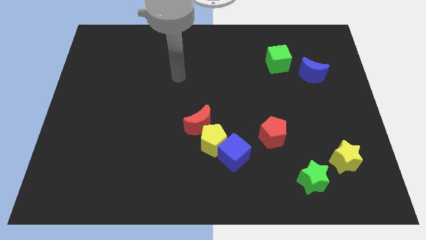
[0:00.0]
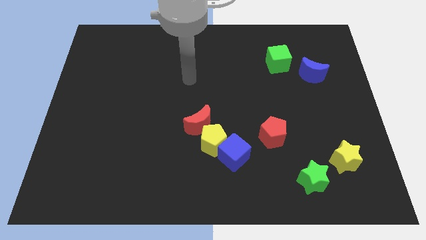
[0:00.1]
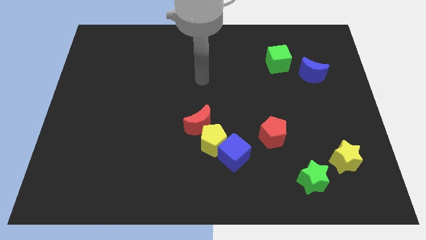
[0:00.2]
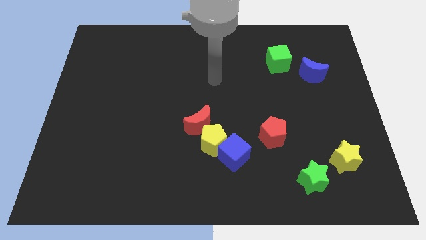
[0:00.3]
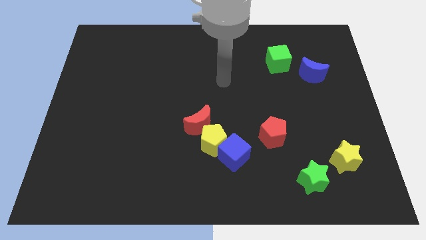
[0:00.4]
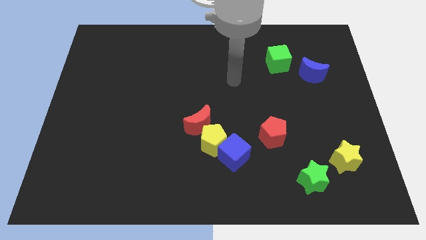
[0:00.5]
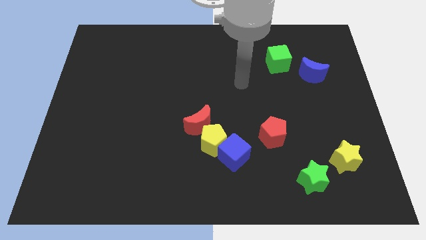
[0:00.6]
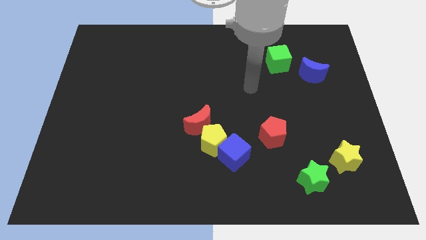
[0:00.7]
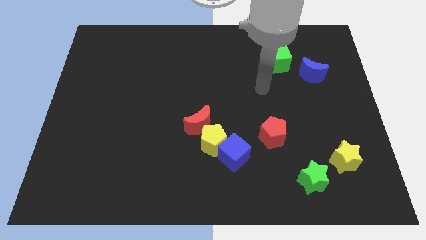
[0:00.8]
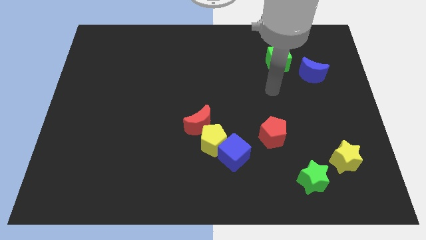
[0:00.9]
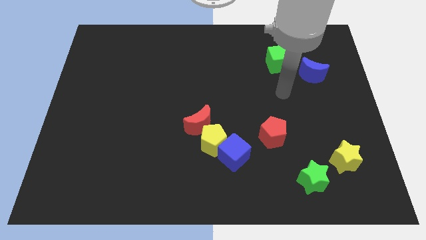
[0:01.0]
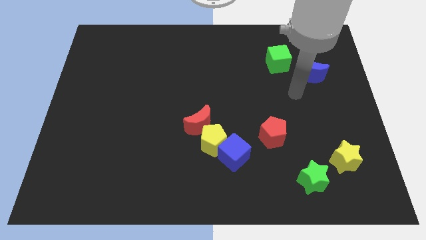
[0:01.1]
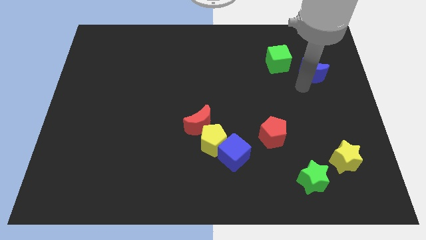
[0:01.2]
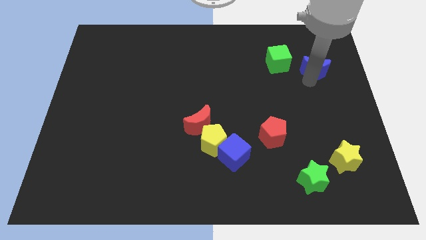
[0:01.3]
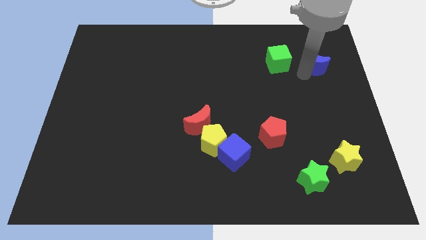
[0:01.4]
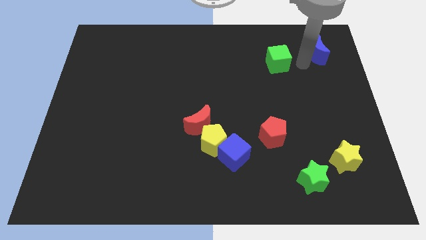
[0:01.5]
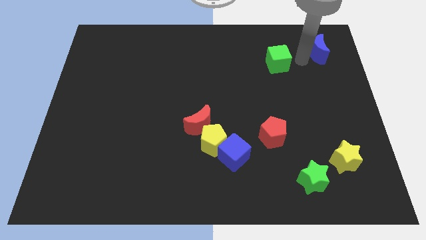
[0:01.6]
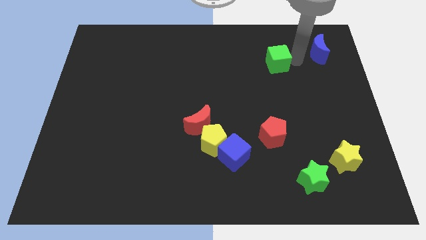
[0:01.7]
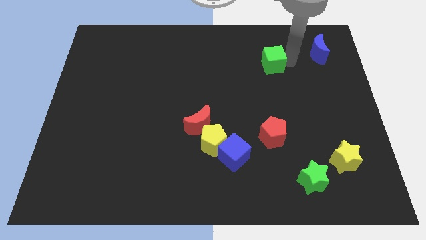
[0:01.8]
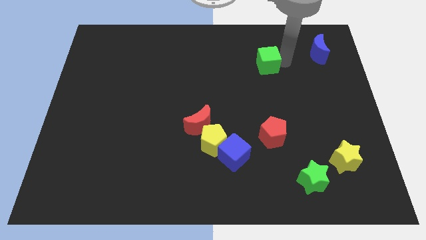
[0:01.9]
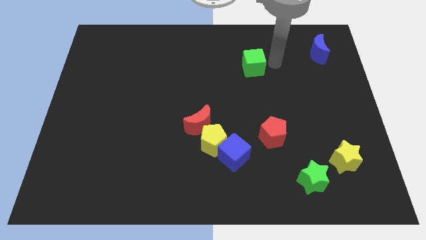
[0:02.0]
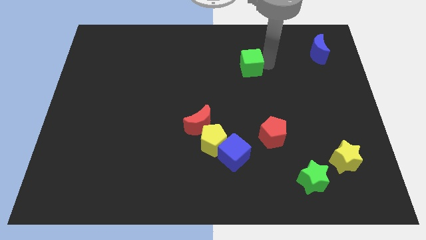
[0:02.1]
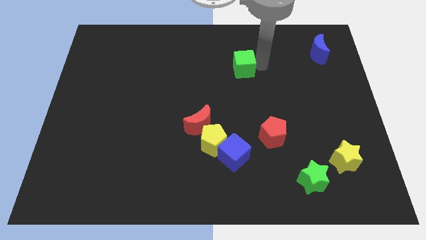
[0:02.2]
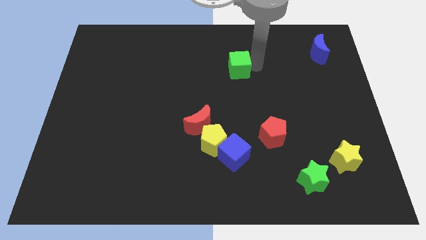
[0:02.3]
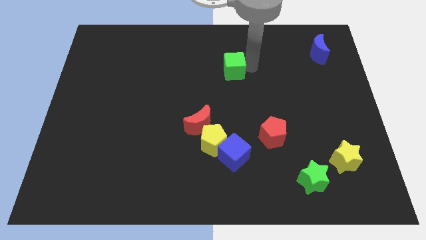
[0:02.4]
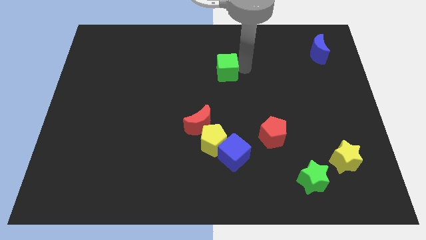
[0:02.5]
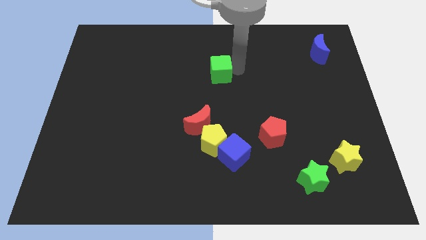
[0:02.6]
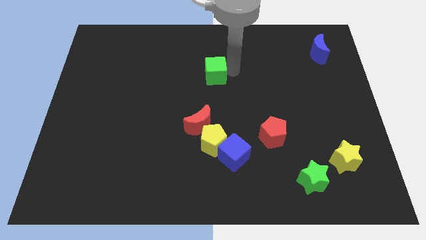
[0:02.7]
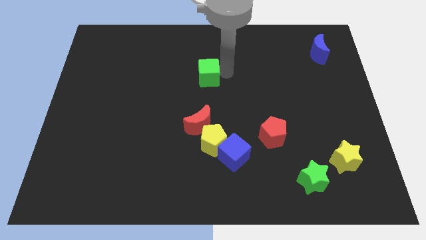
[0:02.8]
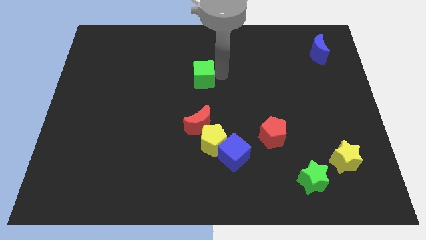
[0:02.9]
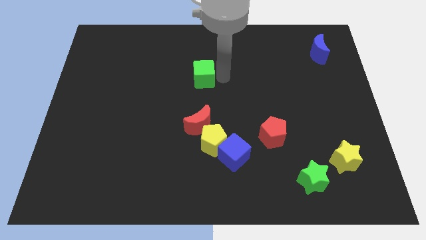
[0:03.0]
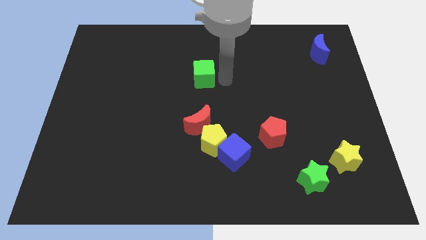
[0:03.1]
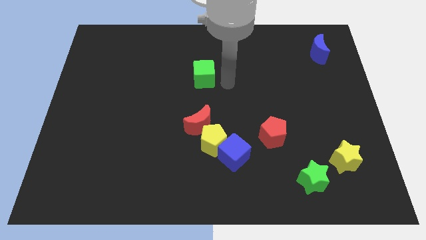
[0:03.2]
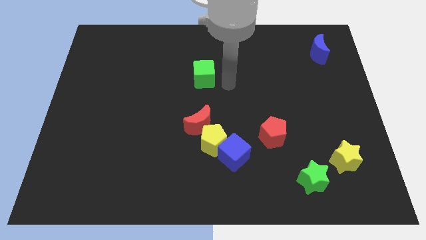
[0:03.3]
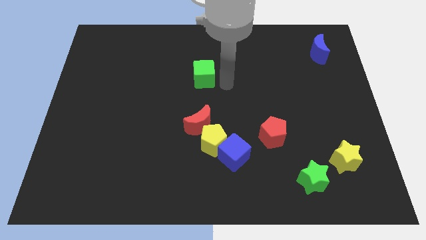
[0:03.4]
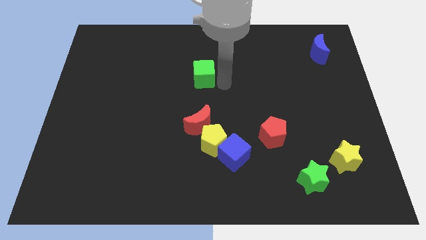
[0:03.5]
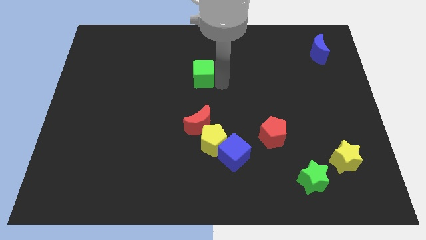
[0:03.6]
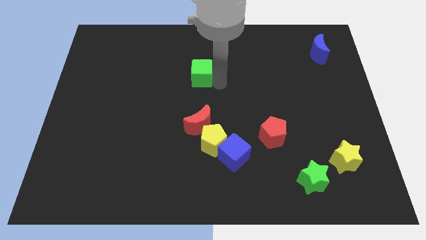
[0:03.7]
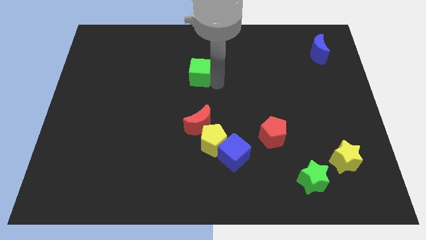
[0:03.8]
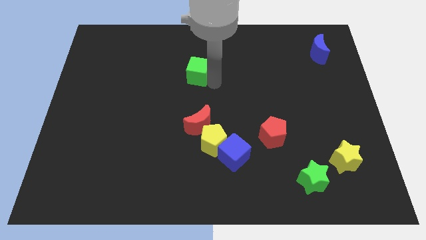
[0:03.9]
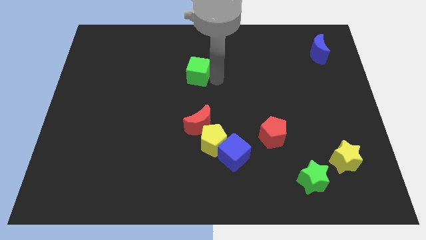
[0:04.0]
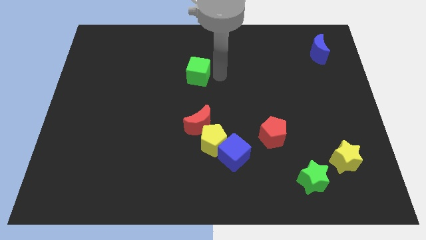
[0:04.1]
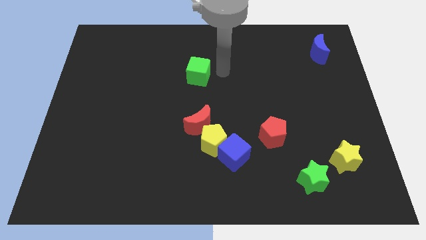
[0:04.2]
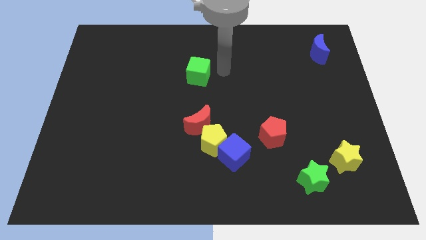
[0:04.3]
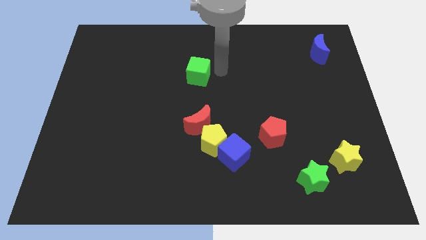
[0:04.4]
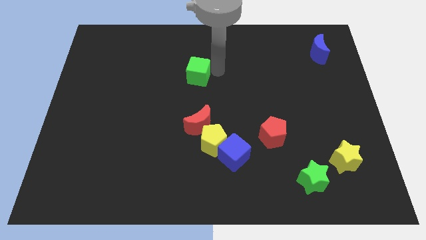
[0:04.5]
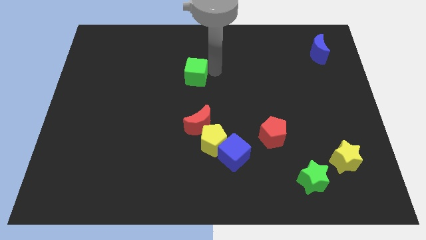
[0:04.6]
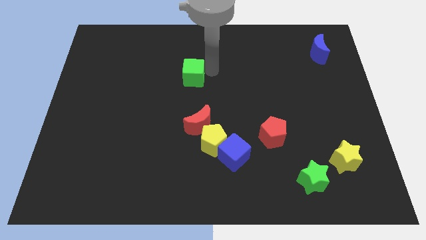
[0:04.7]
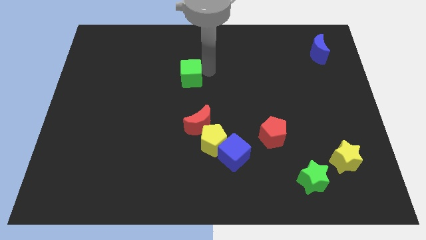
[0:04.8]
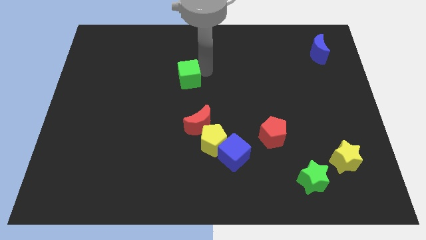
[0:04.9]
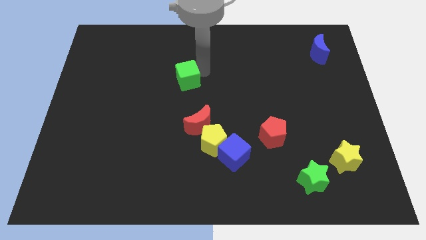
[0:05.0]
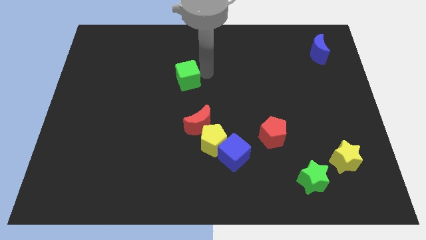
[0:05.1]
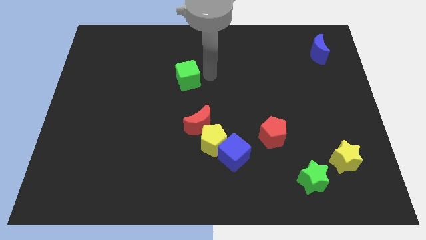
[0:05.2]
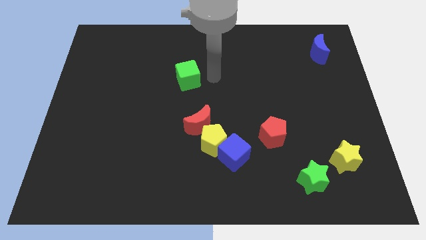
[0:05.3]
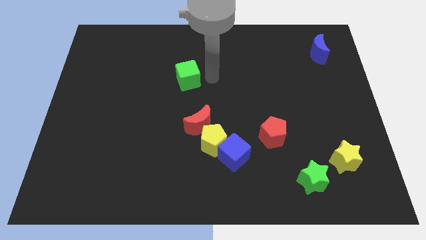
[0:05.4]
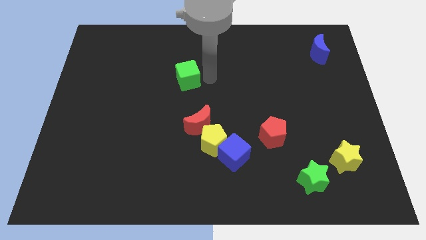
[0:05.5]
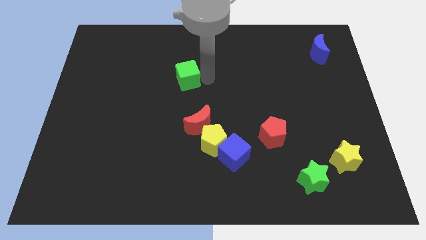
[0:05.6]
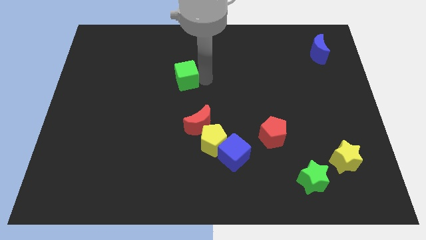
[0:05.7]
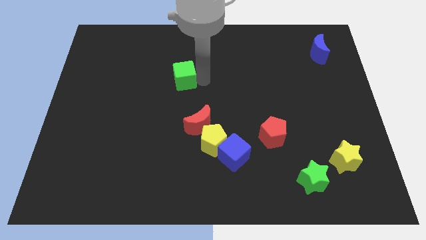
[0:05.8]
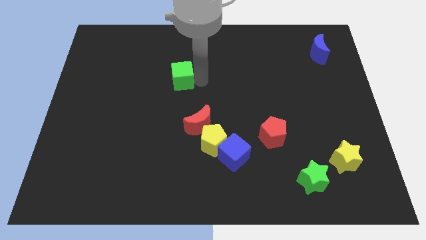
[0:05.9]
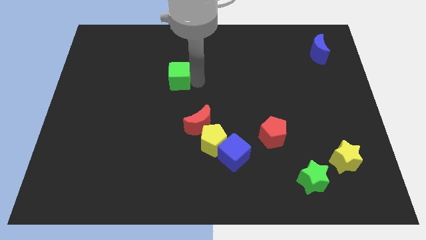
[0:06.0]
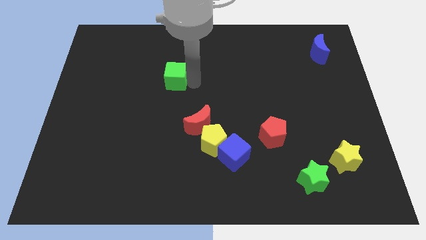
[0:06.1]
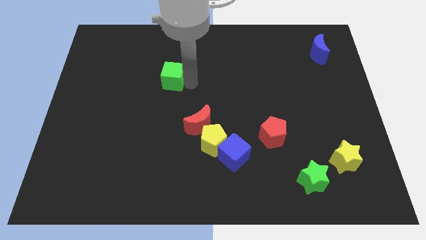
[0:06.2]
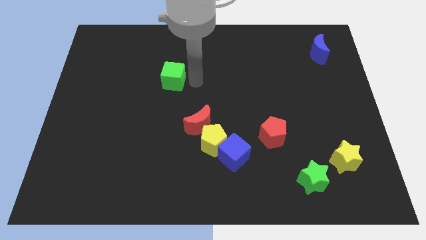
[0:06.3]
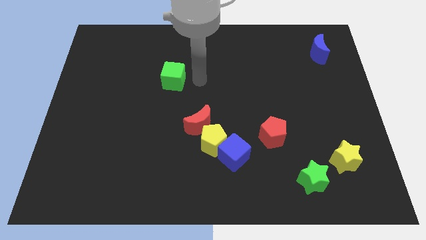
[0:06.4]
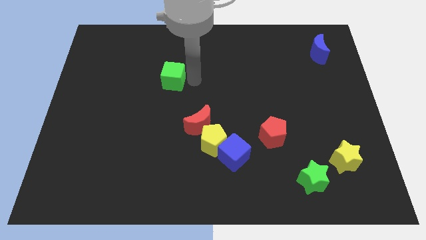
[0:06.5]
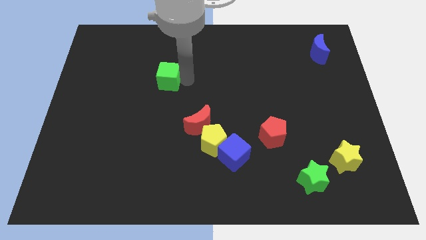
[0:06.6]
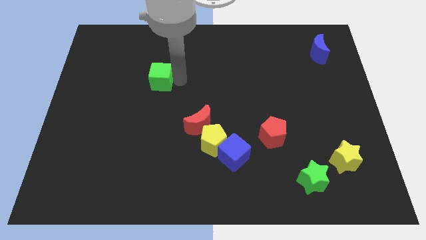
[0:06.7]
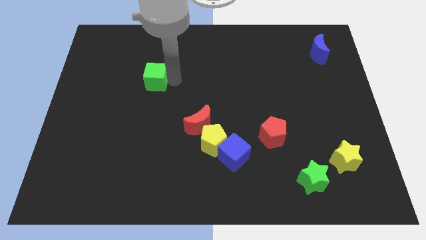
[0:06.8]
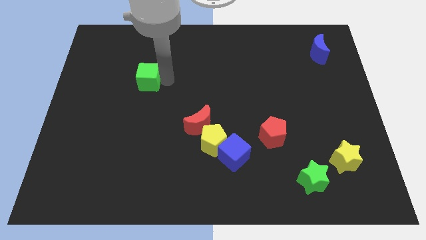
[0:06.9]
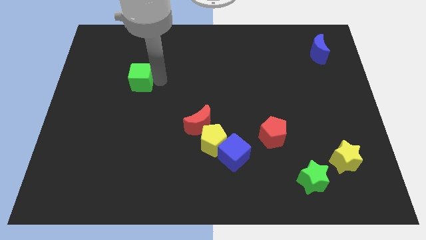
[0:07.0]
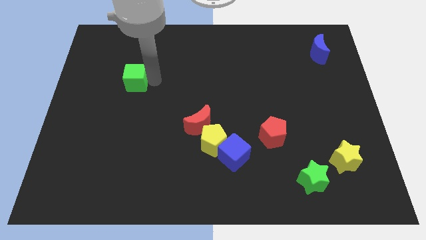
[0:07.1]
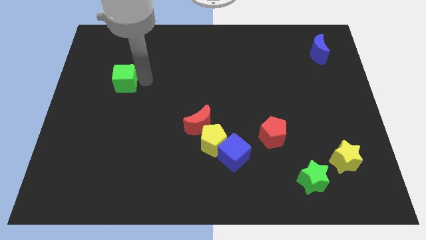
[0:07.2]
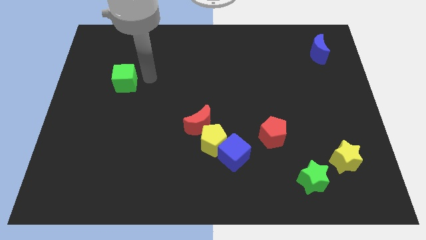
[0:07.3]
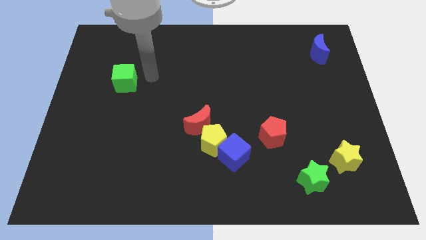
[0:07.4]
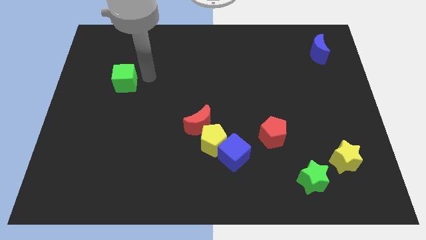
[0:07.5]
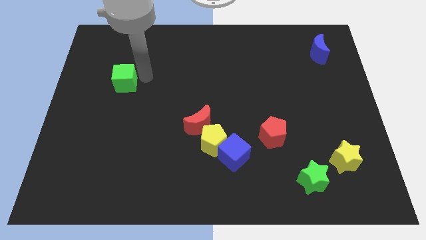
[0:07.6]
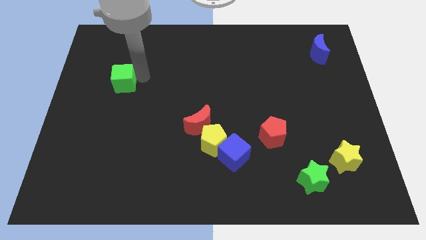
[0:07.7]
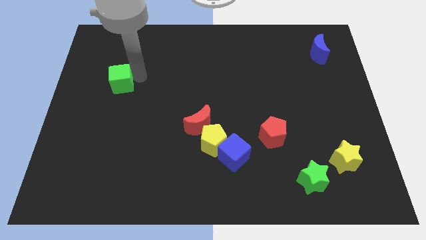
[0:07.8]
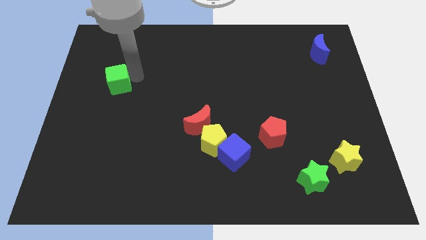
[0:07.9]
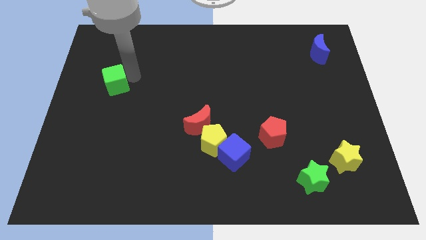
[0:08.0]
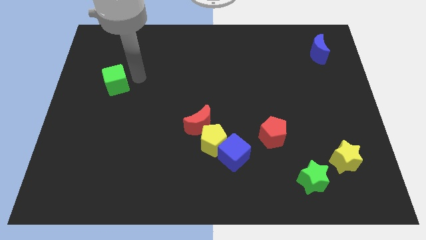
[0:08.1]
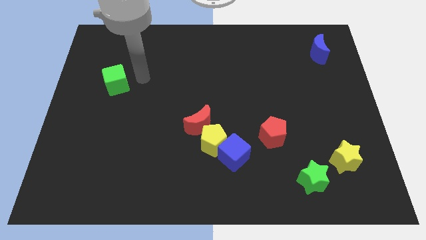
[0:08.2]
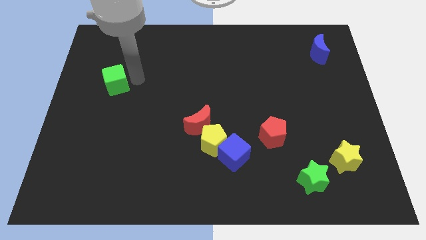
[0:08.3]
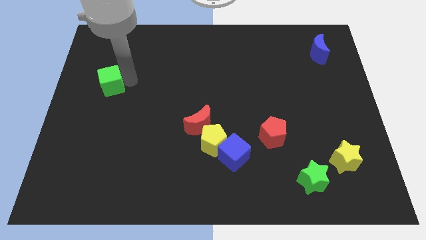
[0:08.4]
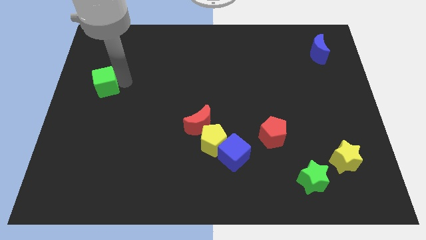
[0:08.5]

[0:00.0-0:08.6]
slide the green cube to the left side
